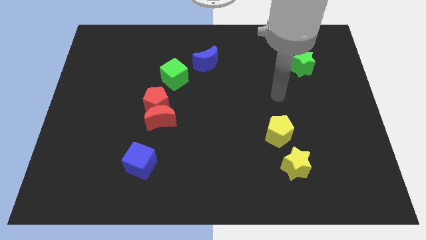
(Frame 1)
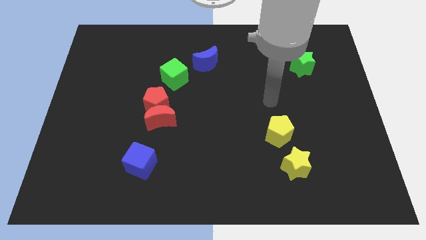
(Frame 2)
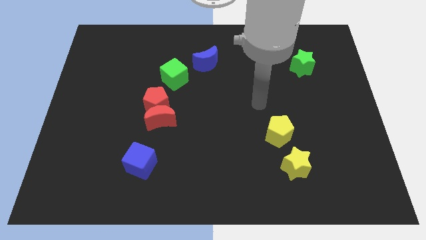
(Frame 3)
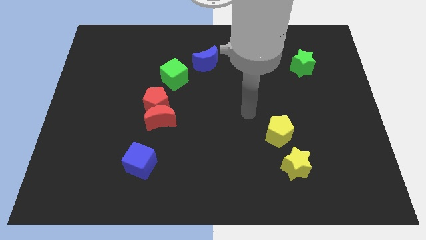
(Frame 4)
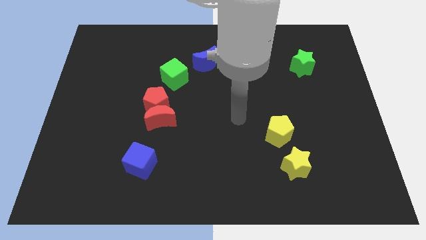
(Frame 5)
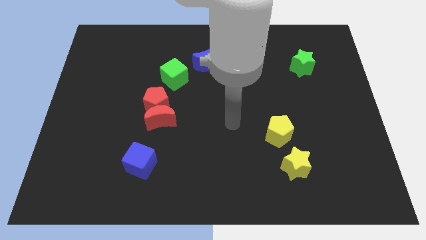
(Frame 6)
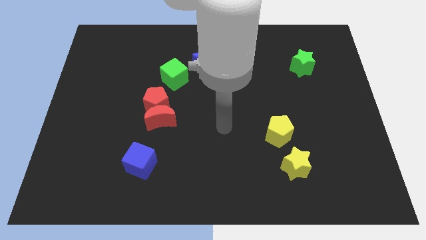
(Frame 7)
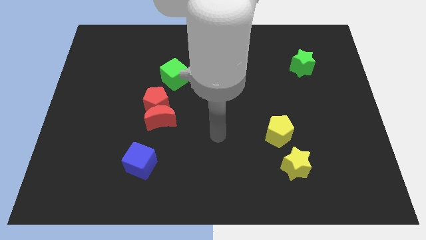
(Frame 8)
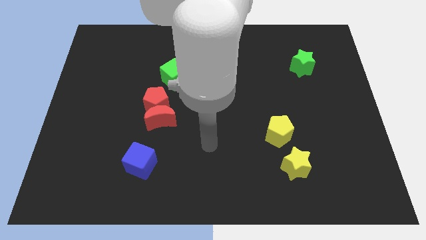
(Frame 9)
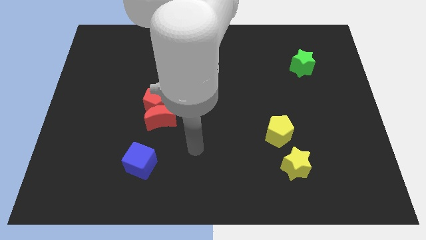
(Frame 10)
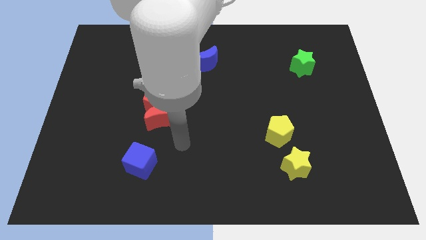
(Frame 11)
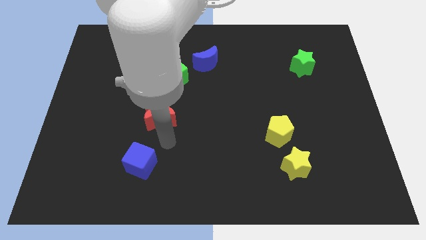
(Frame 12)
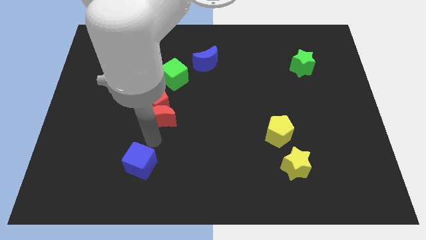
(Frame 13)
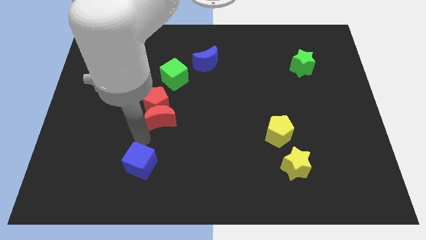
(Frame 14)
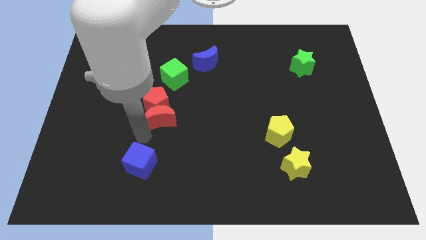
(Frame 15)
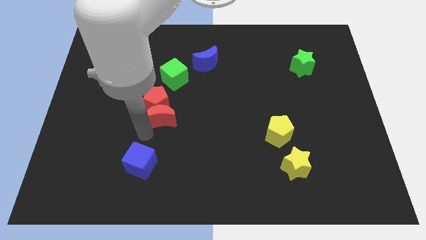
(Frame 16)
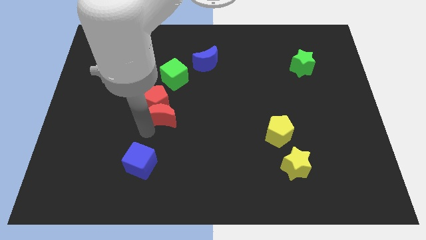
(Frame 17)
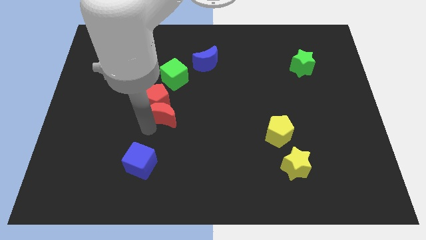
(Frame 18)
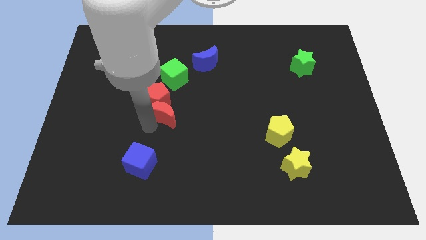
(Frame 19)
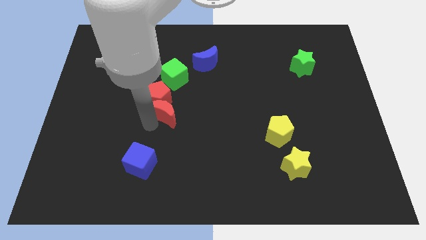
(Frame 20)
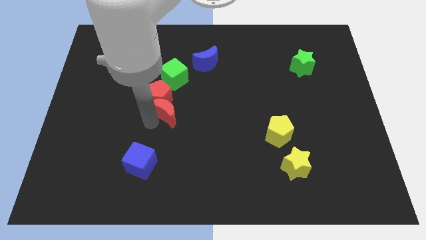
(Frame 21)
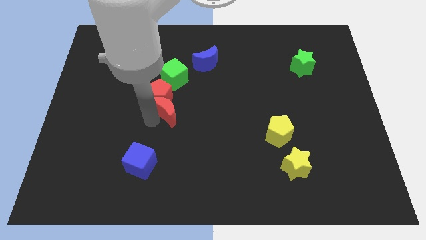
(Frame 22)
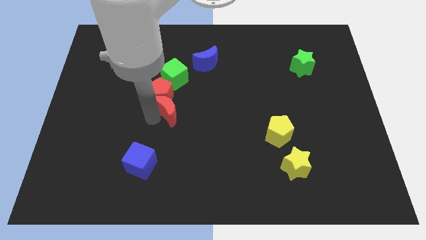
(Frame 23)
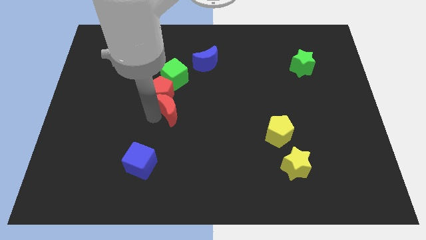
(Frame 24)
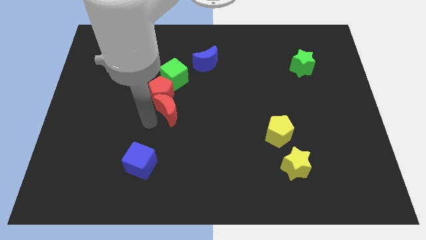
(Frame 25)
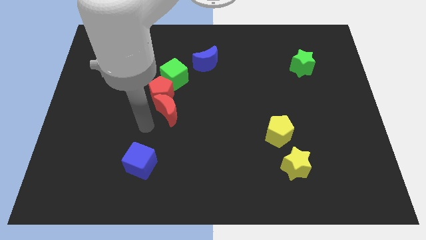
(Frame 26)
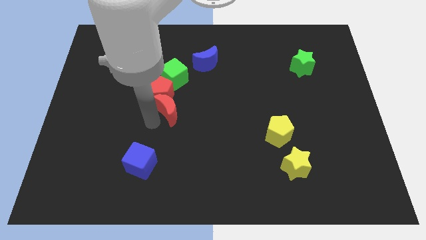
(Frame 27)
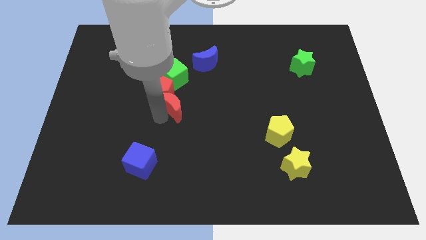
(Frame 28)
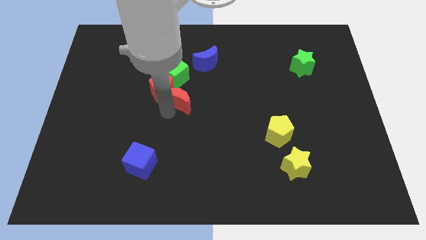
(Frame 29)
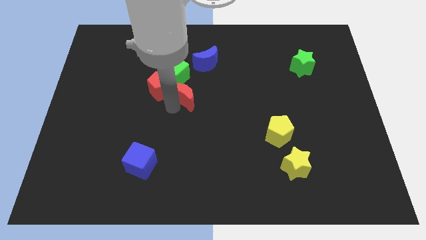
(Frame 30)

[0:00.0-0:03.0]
slightly push the red moon up and then right

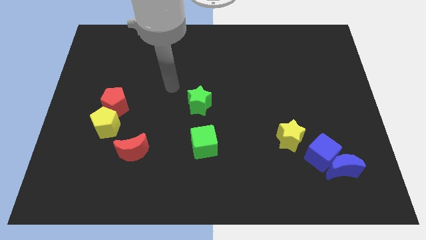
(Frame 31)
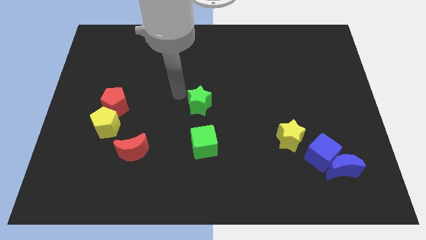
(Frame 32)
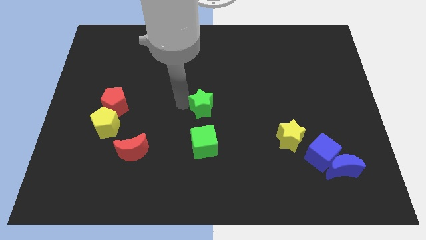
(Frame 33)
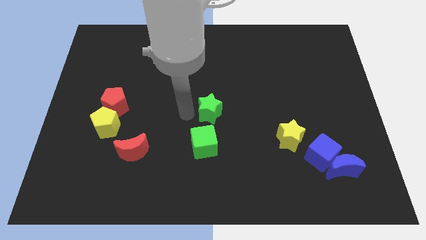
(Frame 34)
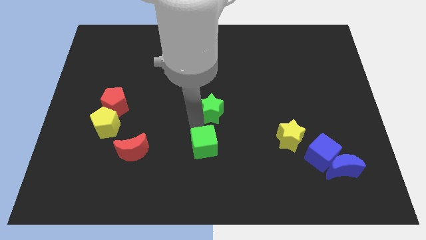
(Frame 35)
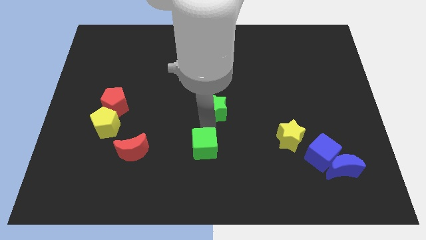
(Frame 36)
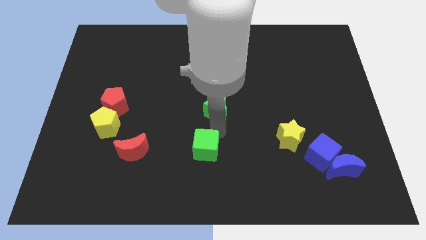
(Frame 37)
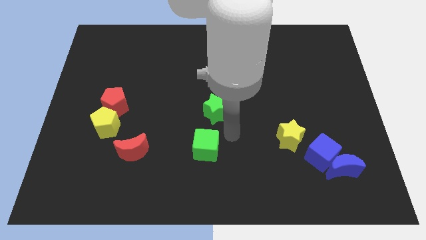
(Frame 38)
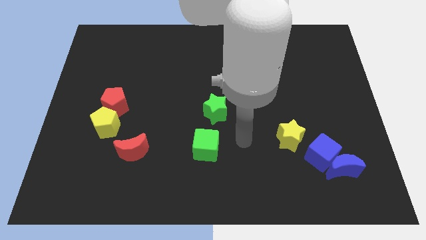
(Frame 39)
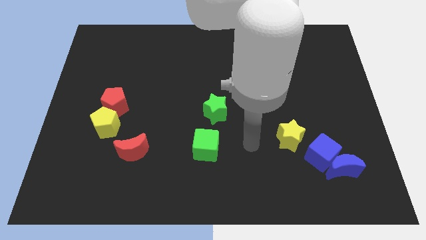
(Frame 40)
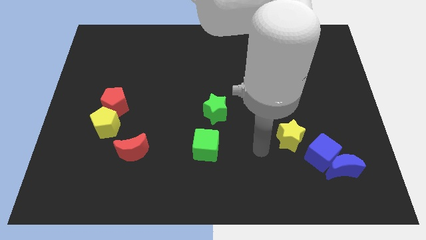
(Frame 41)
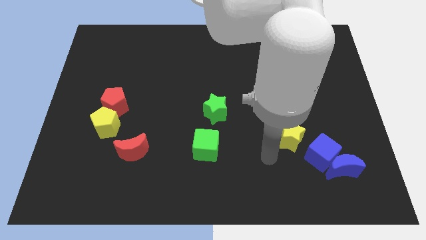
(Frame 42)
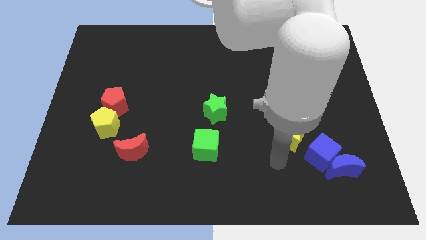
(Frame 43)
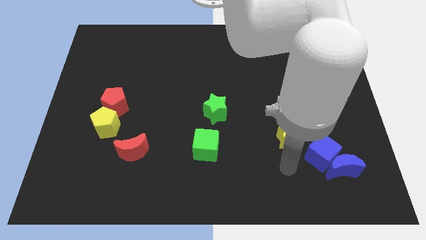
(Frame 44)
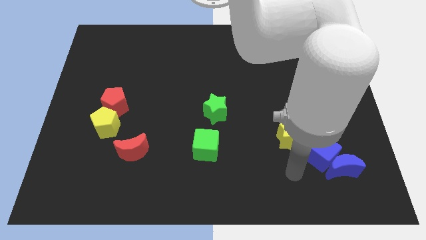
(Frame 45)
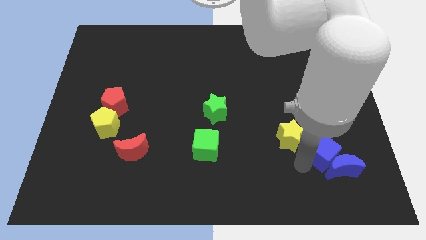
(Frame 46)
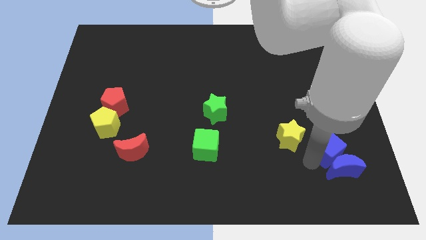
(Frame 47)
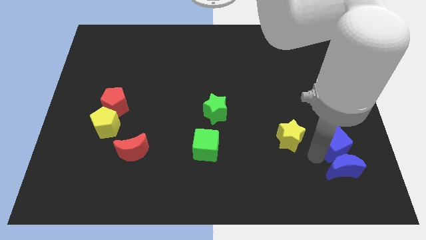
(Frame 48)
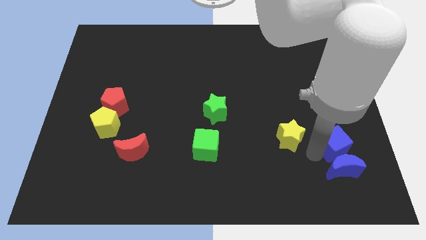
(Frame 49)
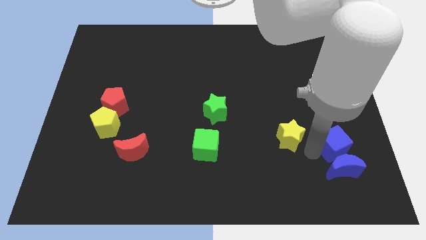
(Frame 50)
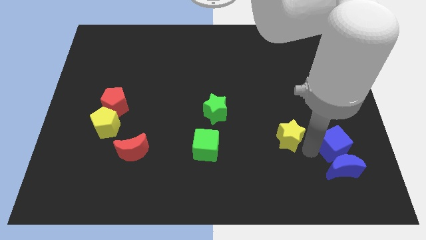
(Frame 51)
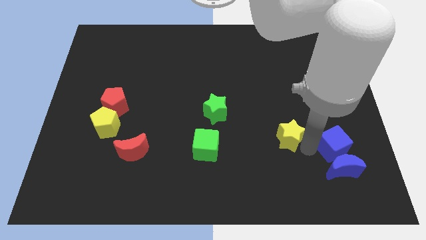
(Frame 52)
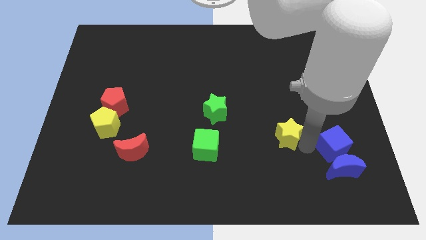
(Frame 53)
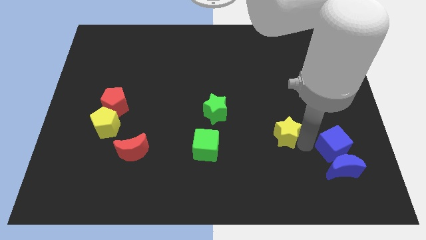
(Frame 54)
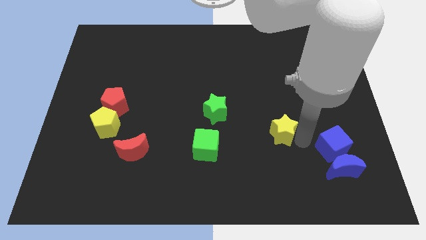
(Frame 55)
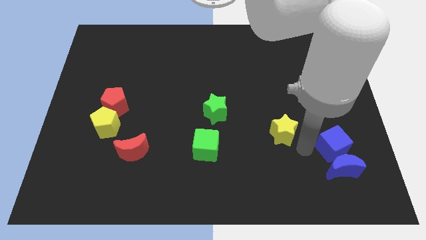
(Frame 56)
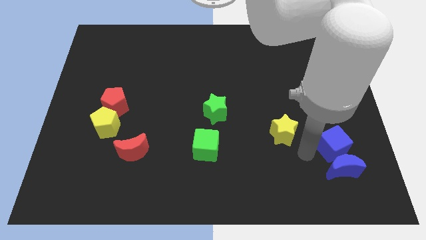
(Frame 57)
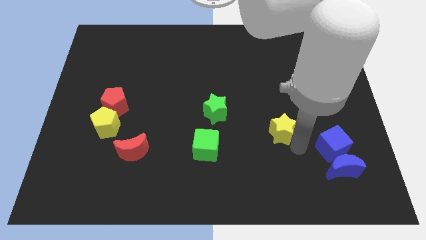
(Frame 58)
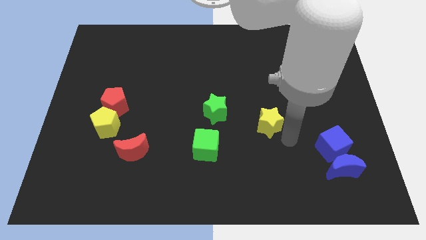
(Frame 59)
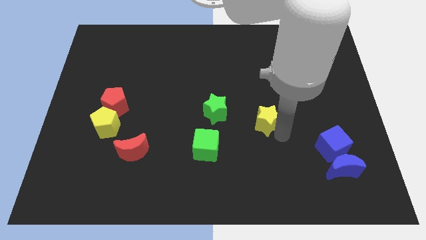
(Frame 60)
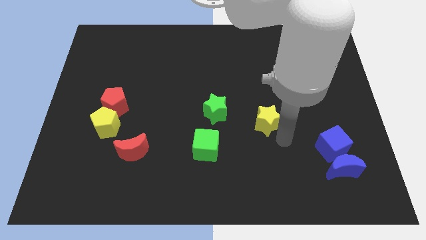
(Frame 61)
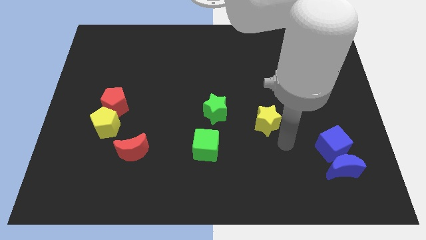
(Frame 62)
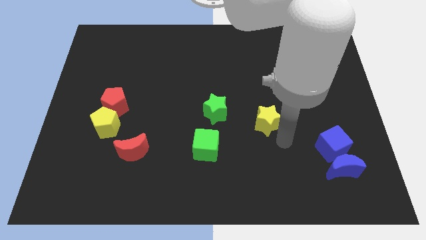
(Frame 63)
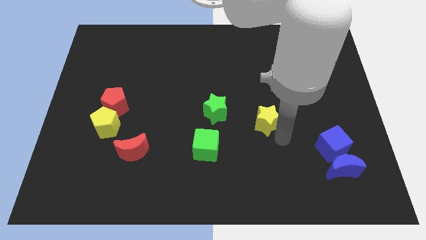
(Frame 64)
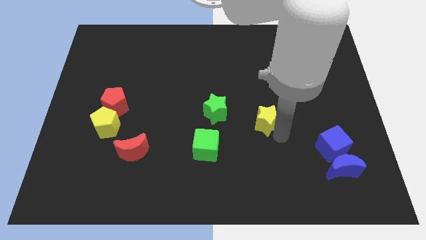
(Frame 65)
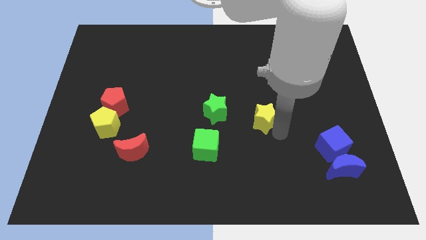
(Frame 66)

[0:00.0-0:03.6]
move the yellow star upwards and left diagonally slightly

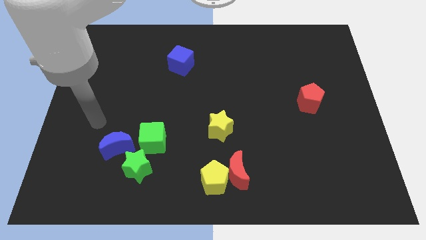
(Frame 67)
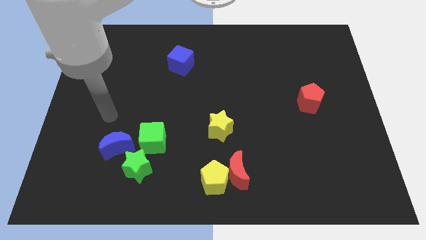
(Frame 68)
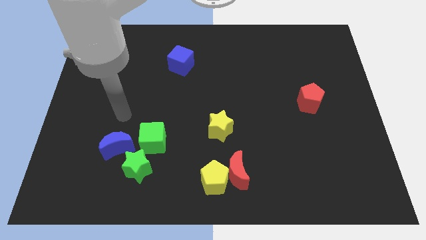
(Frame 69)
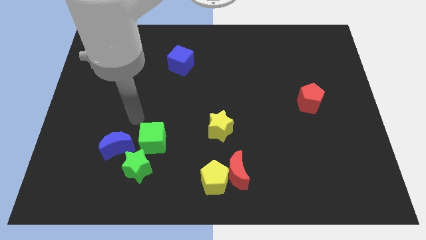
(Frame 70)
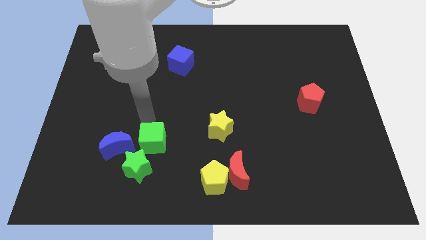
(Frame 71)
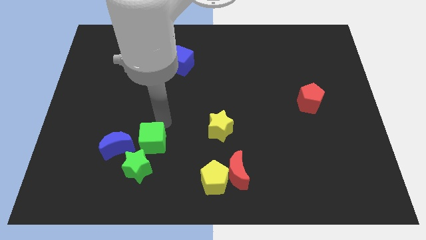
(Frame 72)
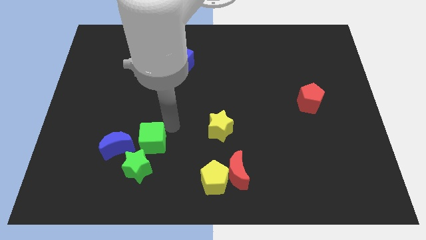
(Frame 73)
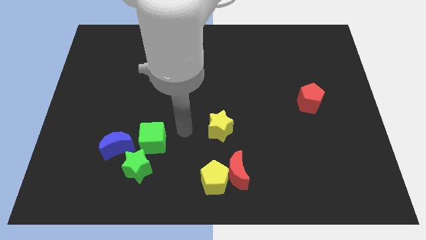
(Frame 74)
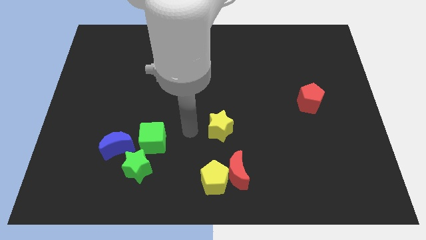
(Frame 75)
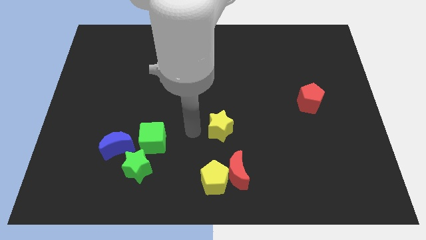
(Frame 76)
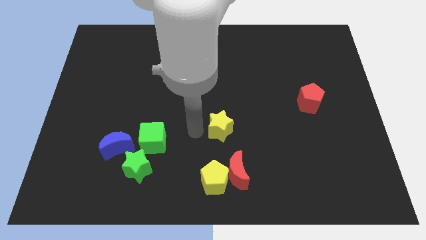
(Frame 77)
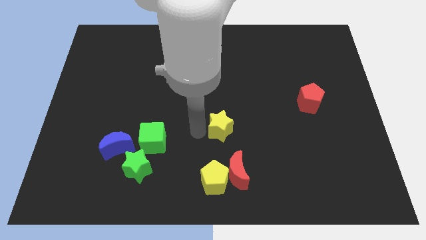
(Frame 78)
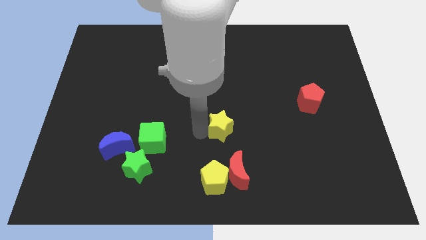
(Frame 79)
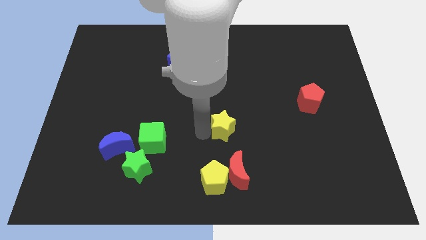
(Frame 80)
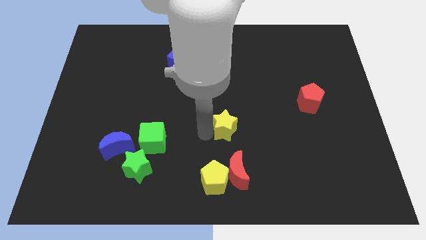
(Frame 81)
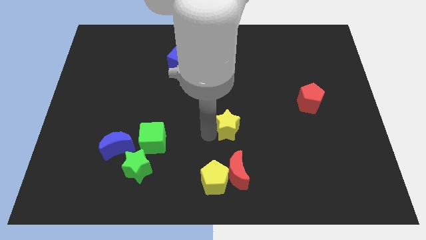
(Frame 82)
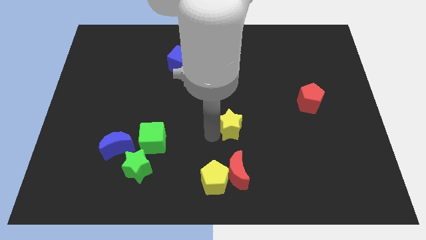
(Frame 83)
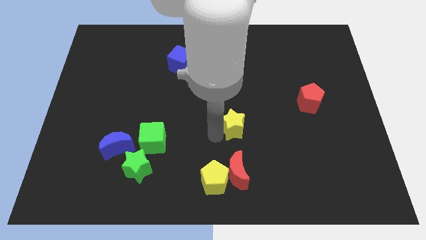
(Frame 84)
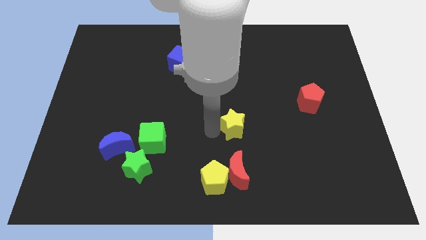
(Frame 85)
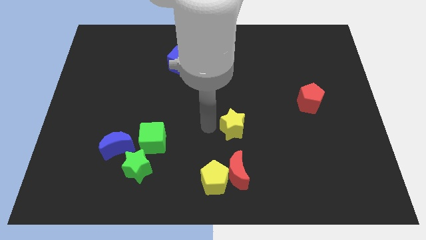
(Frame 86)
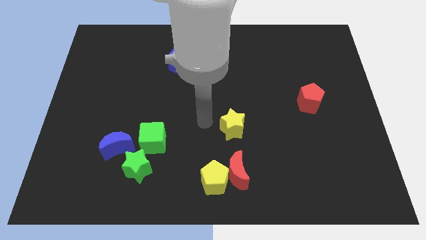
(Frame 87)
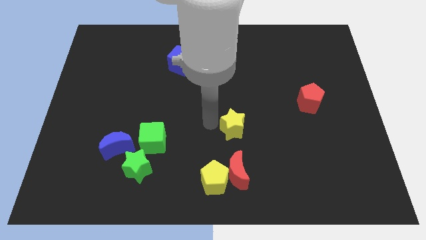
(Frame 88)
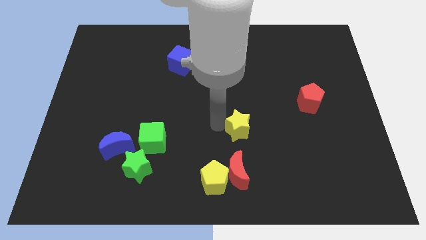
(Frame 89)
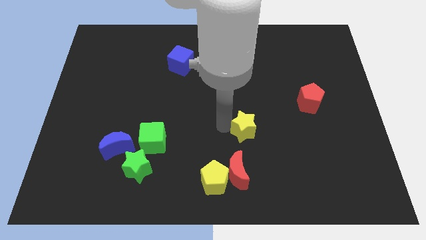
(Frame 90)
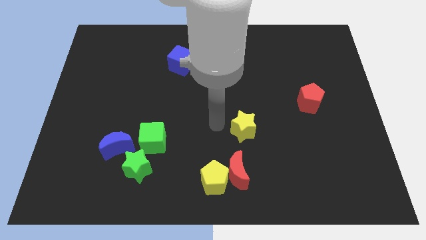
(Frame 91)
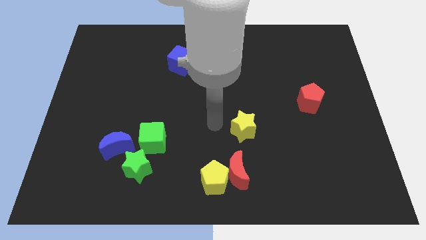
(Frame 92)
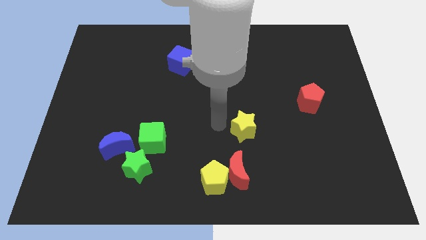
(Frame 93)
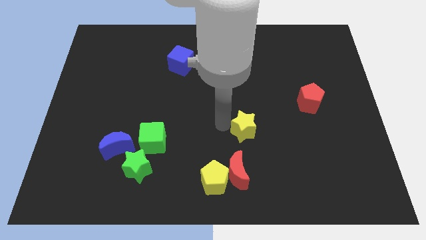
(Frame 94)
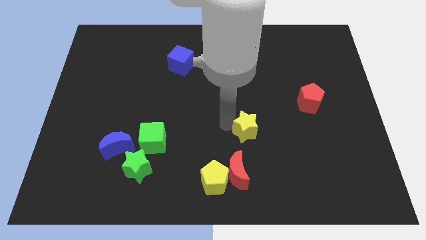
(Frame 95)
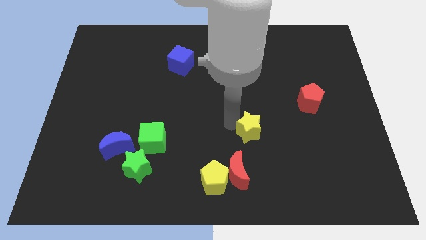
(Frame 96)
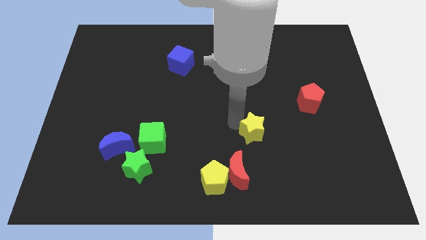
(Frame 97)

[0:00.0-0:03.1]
push the yellow star to the right a bit
